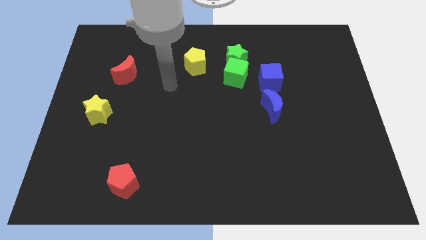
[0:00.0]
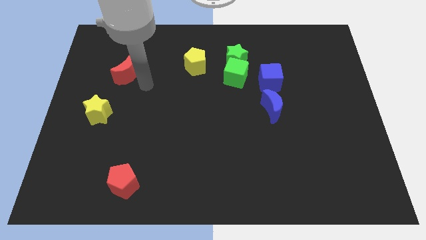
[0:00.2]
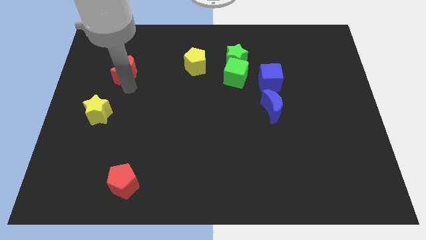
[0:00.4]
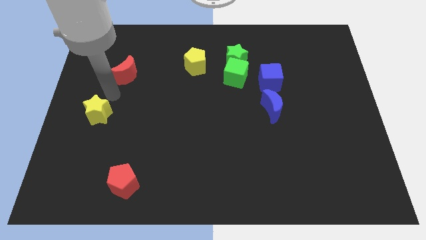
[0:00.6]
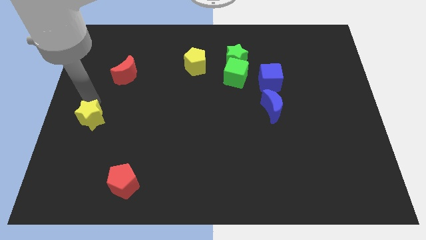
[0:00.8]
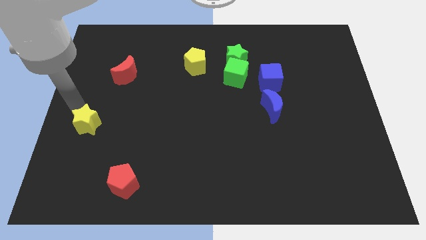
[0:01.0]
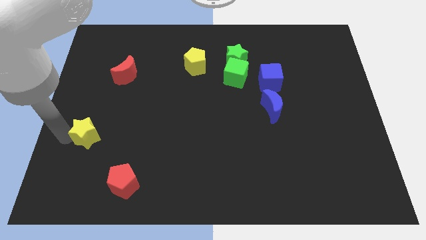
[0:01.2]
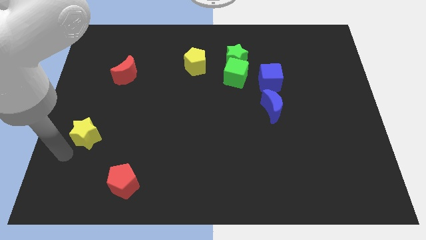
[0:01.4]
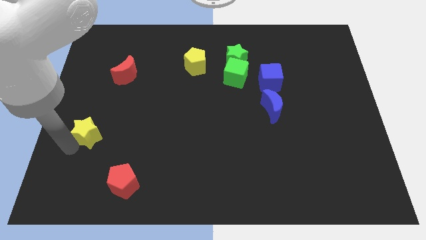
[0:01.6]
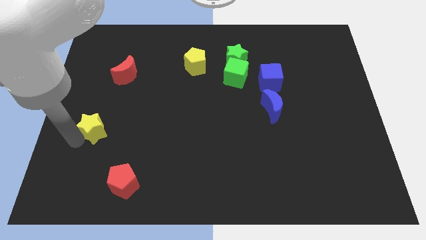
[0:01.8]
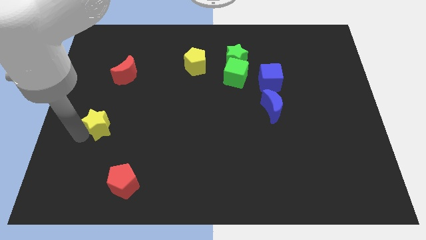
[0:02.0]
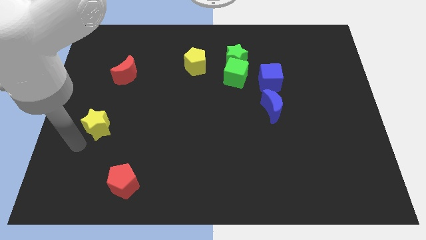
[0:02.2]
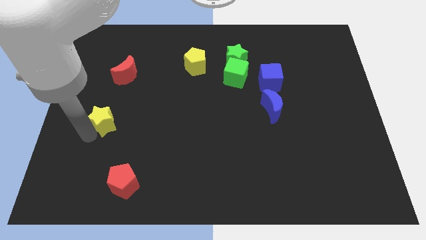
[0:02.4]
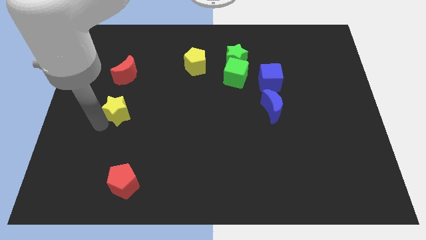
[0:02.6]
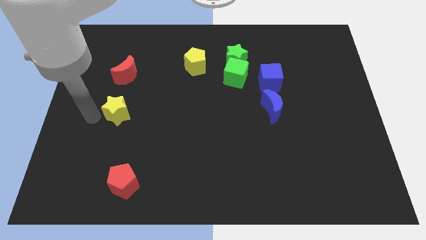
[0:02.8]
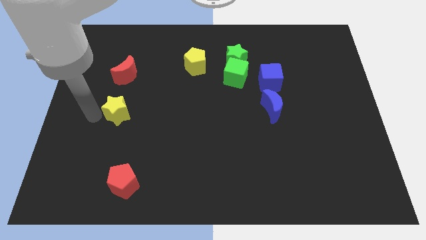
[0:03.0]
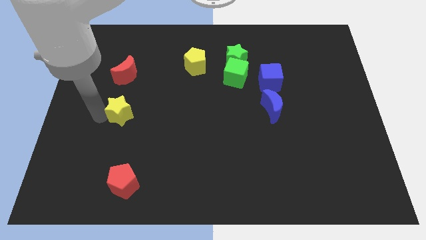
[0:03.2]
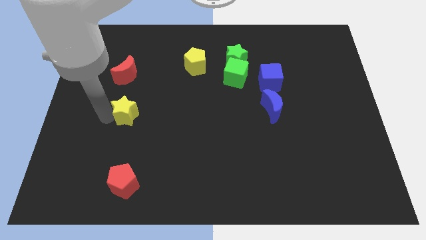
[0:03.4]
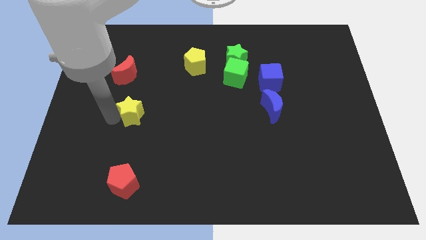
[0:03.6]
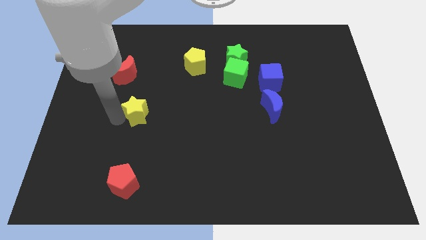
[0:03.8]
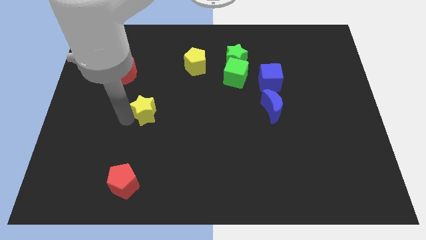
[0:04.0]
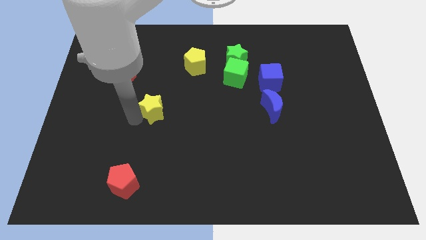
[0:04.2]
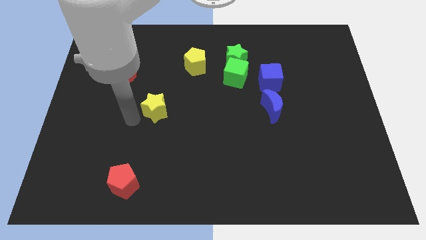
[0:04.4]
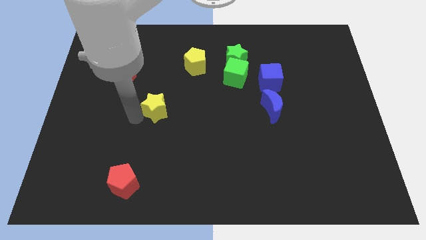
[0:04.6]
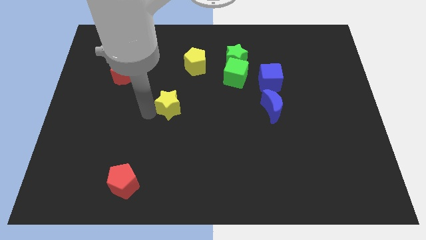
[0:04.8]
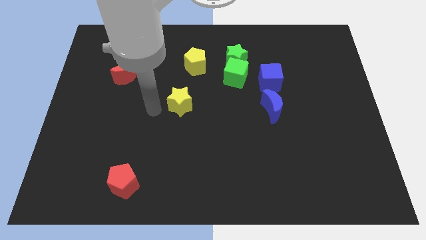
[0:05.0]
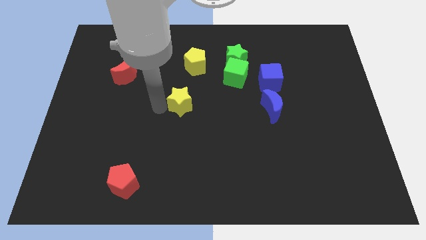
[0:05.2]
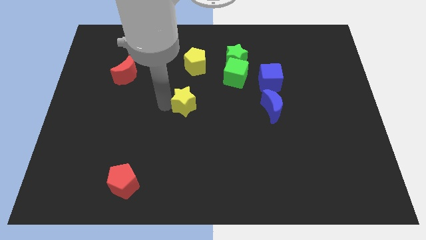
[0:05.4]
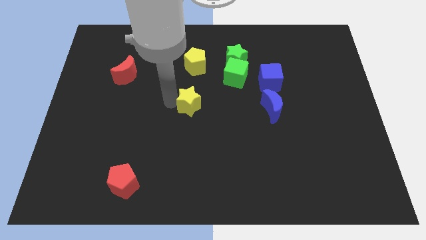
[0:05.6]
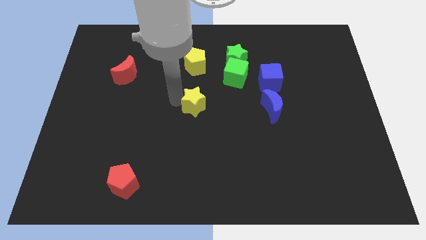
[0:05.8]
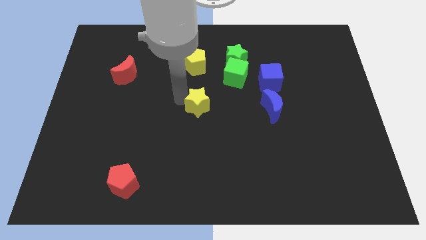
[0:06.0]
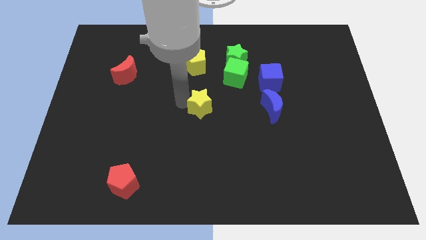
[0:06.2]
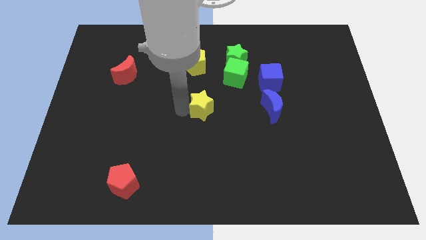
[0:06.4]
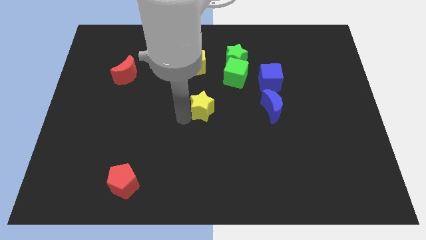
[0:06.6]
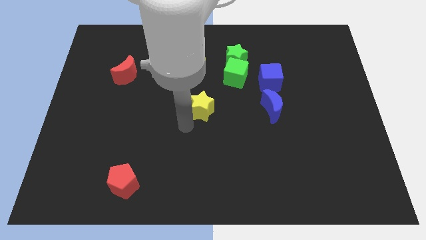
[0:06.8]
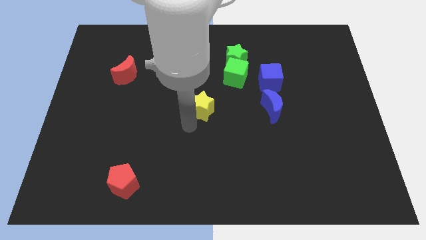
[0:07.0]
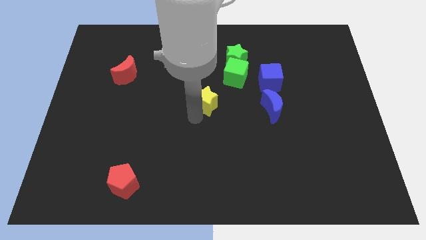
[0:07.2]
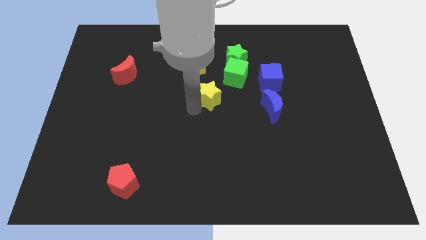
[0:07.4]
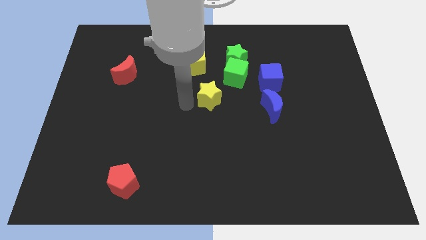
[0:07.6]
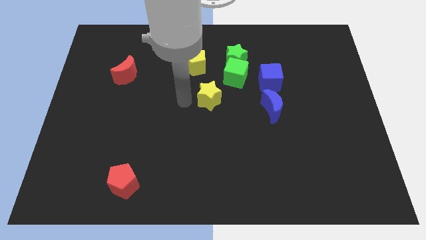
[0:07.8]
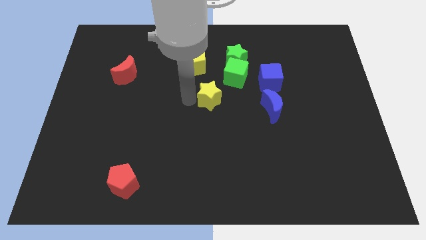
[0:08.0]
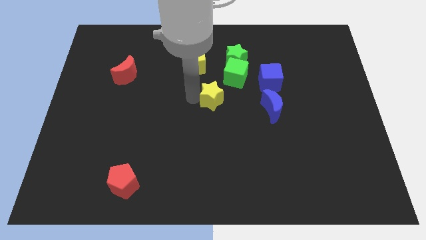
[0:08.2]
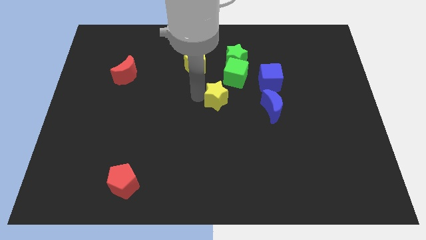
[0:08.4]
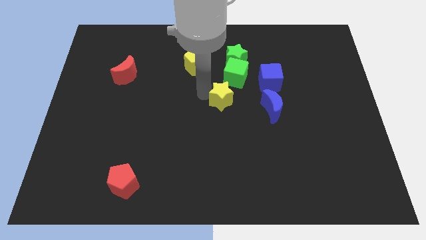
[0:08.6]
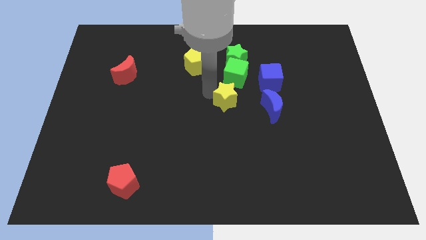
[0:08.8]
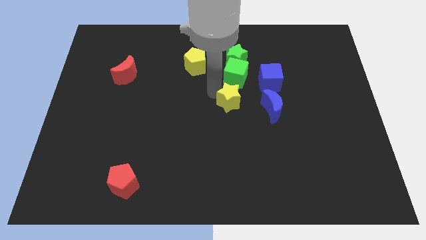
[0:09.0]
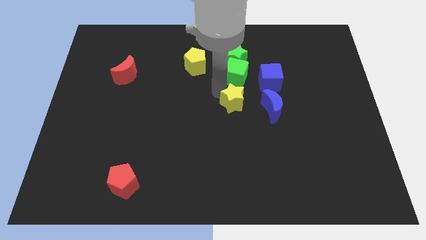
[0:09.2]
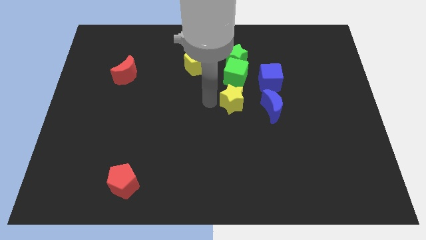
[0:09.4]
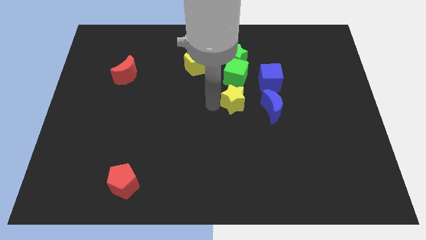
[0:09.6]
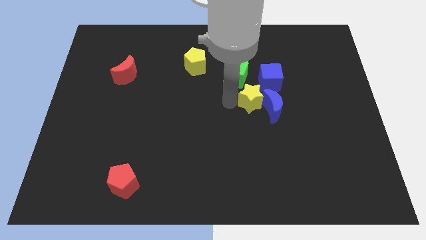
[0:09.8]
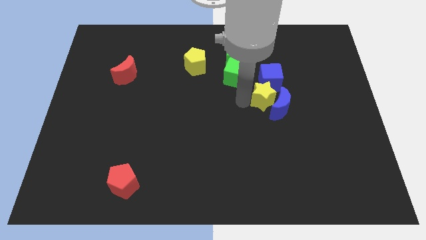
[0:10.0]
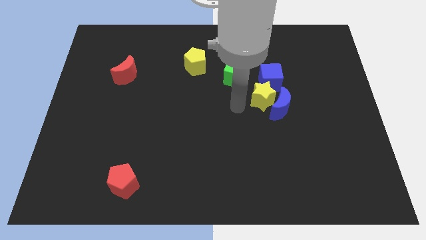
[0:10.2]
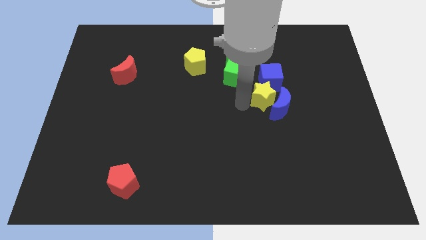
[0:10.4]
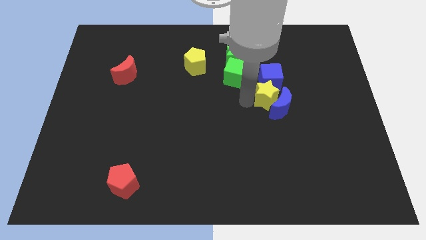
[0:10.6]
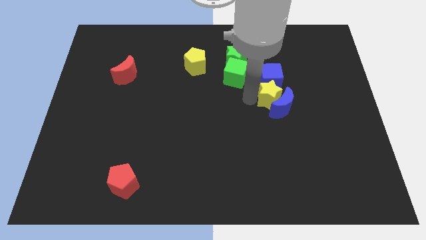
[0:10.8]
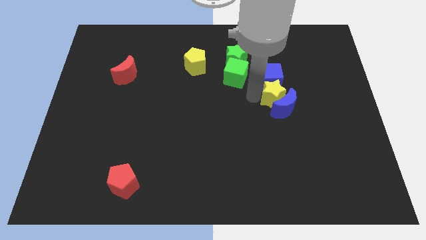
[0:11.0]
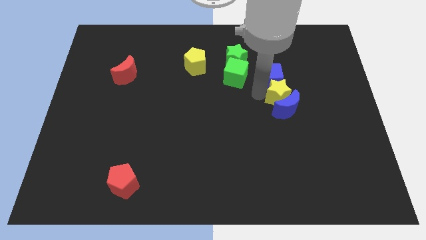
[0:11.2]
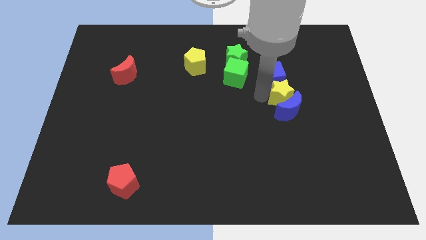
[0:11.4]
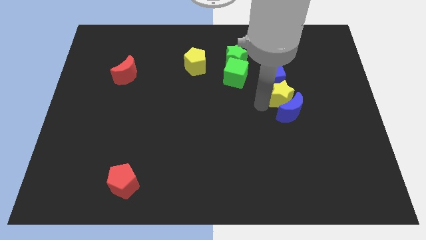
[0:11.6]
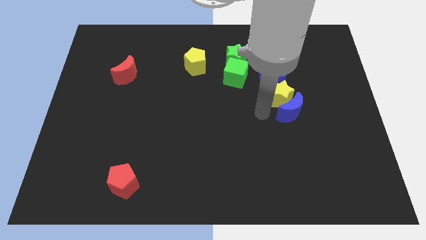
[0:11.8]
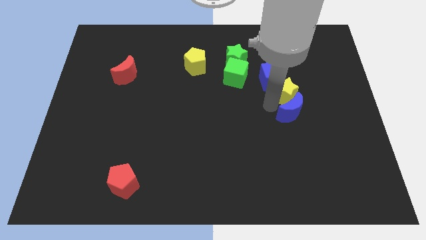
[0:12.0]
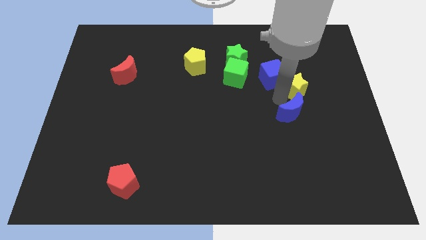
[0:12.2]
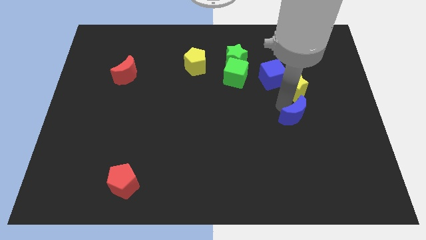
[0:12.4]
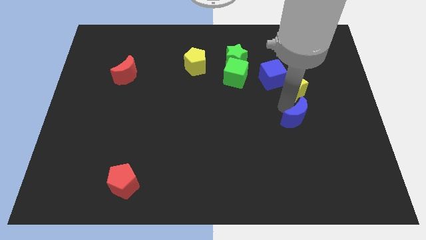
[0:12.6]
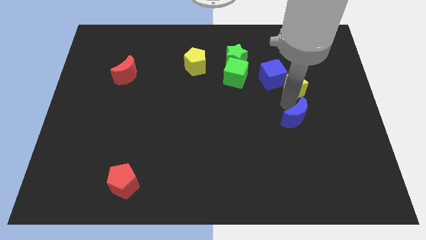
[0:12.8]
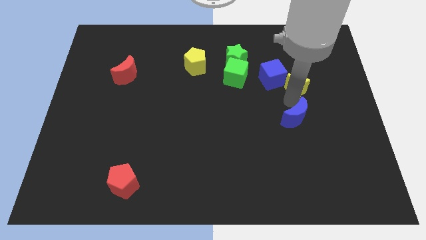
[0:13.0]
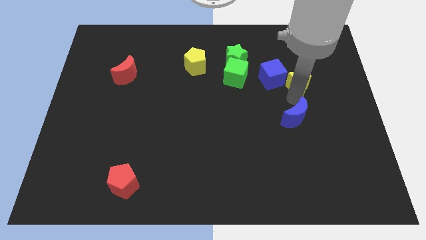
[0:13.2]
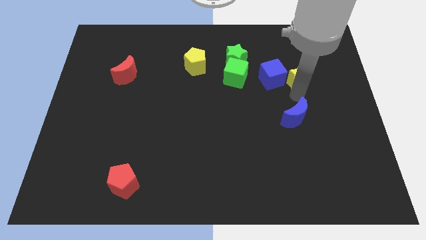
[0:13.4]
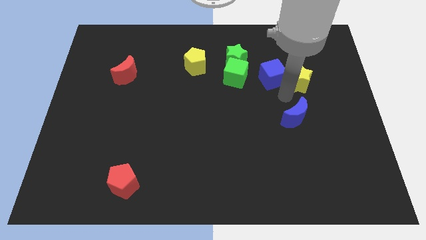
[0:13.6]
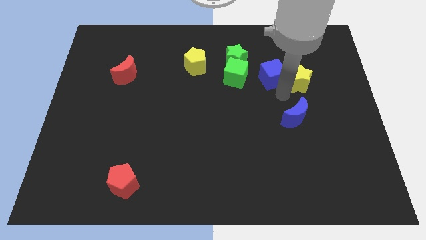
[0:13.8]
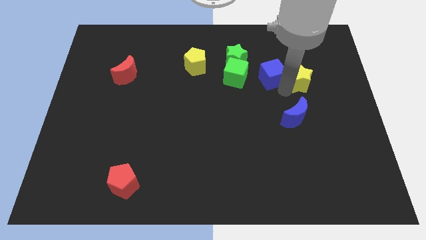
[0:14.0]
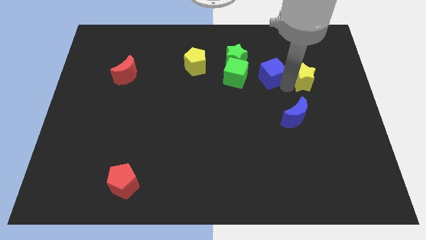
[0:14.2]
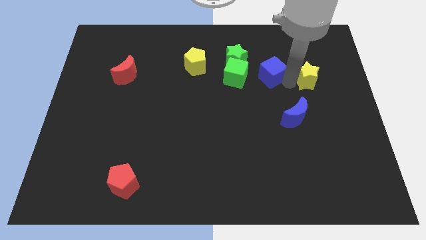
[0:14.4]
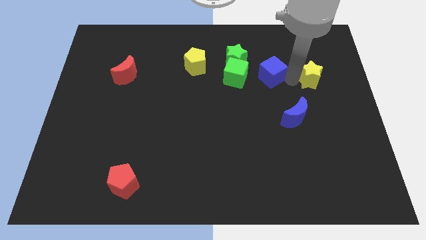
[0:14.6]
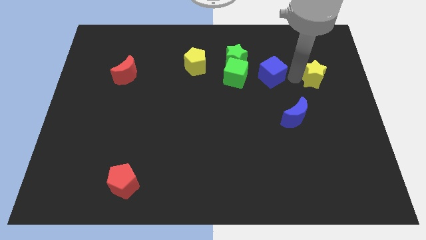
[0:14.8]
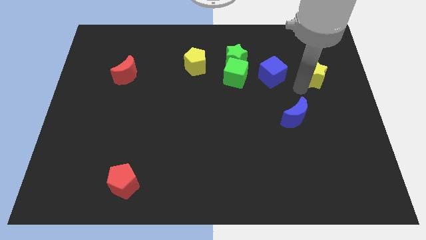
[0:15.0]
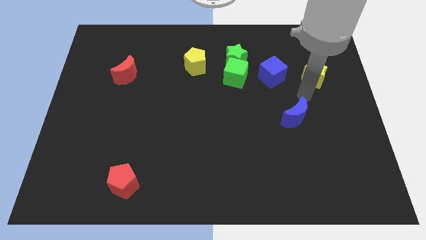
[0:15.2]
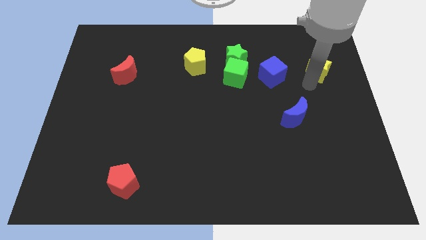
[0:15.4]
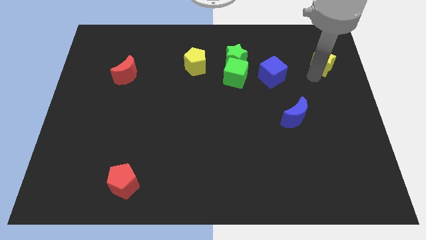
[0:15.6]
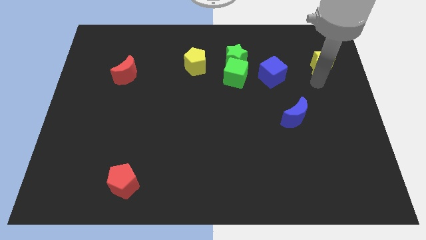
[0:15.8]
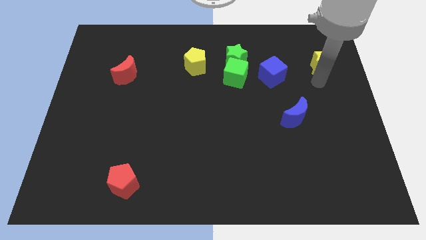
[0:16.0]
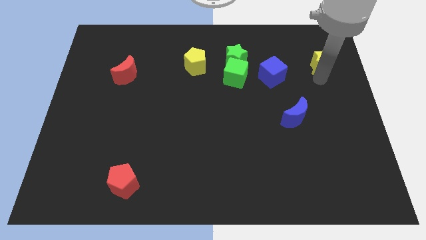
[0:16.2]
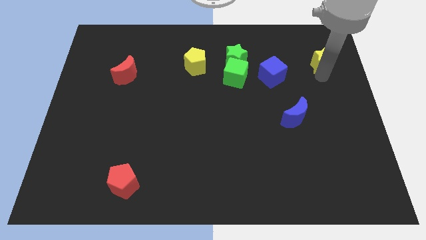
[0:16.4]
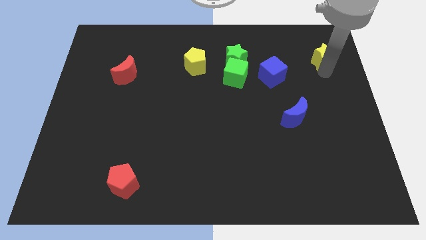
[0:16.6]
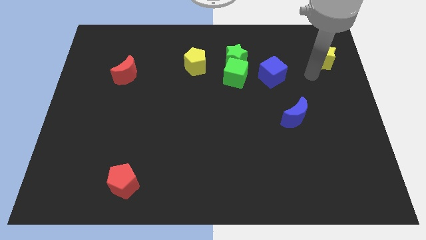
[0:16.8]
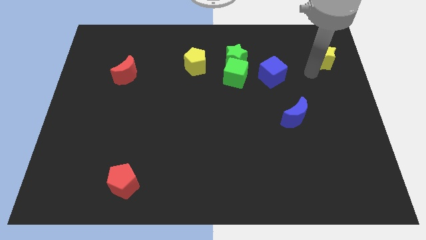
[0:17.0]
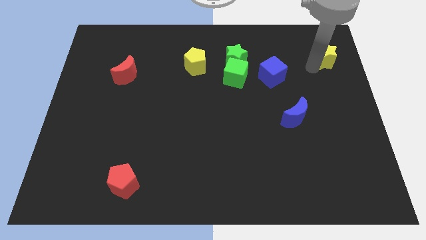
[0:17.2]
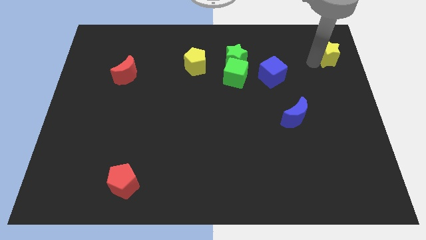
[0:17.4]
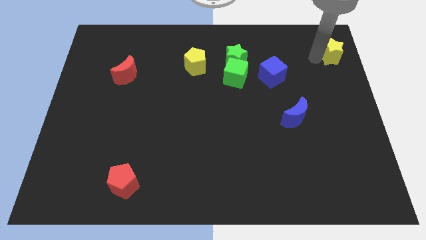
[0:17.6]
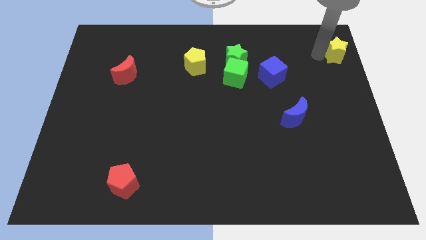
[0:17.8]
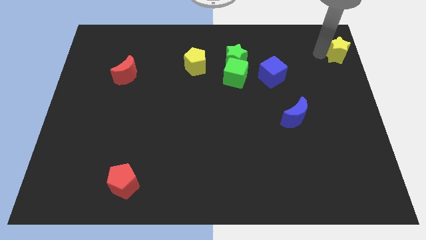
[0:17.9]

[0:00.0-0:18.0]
slide the yellow star to the top right of the board
